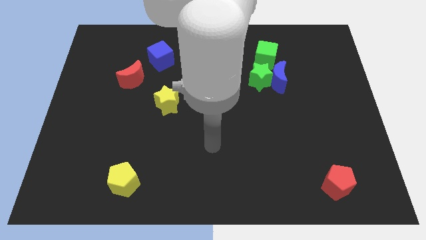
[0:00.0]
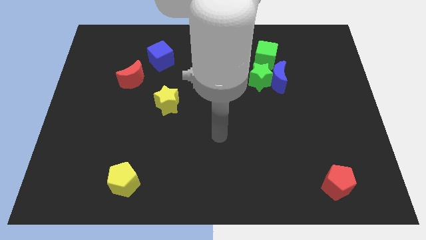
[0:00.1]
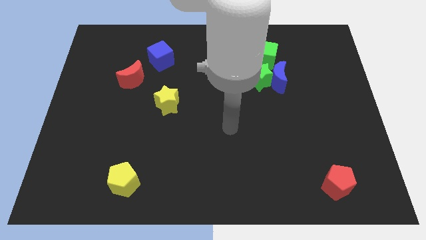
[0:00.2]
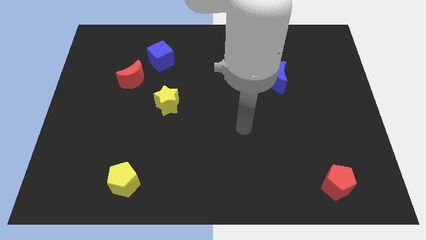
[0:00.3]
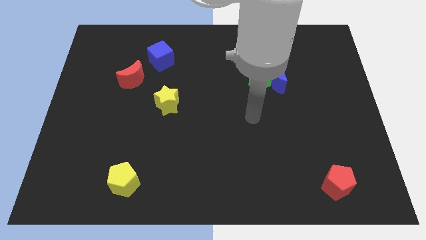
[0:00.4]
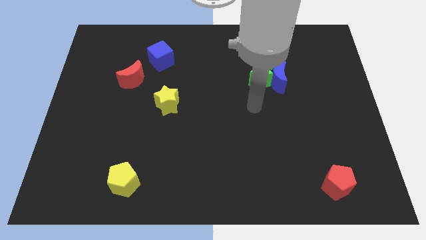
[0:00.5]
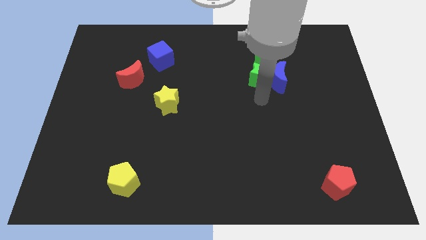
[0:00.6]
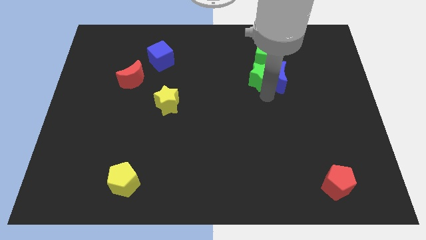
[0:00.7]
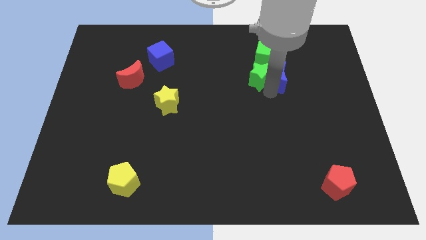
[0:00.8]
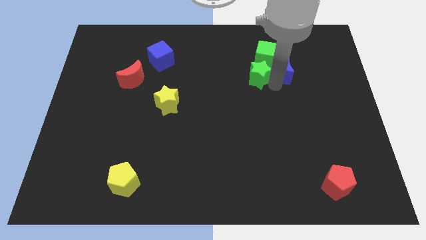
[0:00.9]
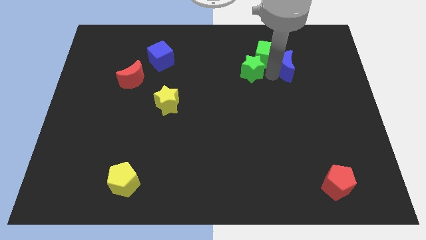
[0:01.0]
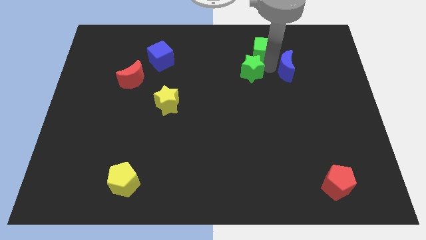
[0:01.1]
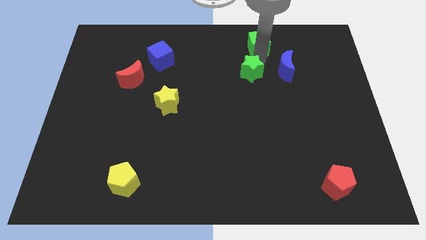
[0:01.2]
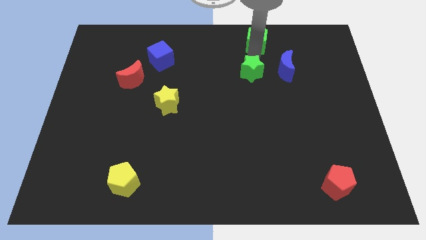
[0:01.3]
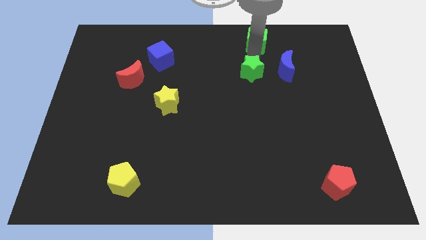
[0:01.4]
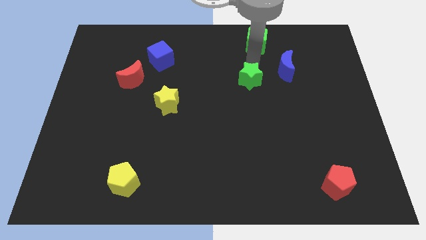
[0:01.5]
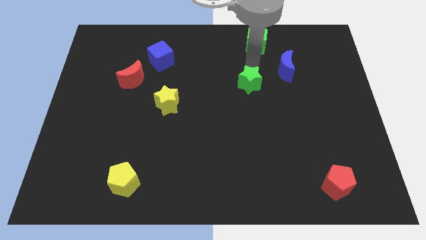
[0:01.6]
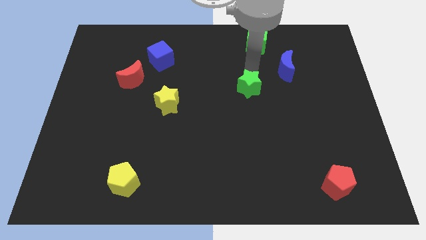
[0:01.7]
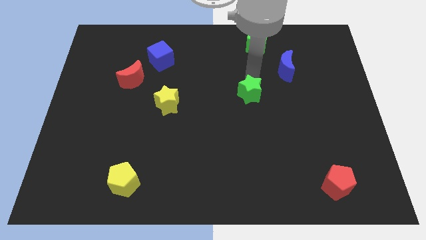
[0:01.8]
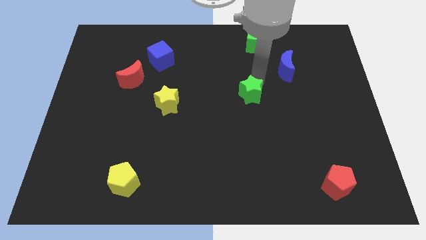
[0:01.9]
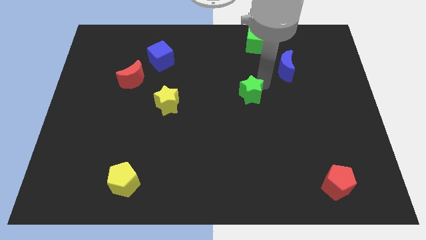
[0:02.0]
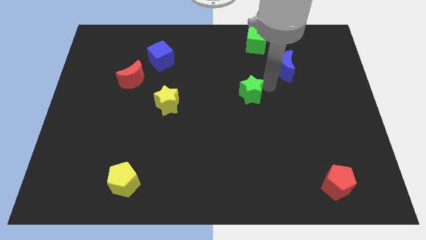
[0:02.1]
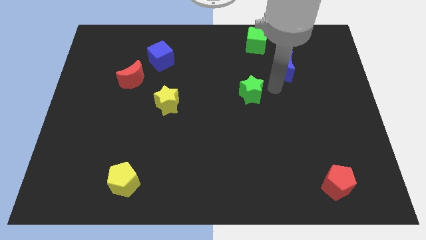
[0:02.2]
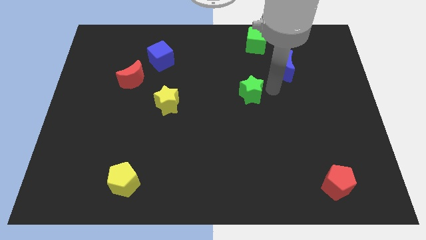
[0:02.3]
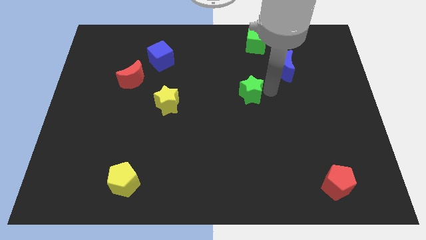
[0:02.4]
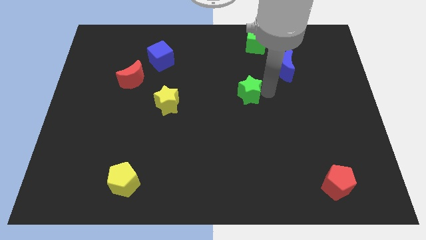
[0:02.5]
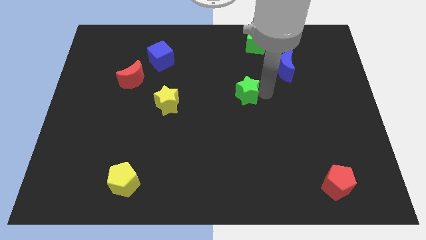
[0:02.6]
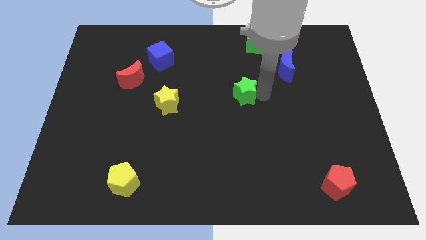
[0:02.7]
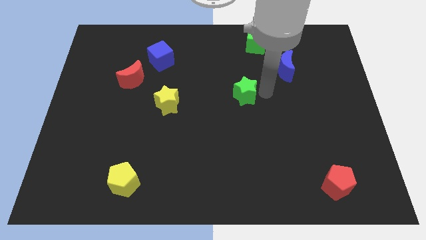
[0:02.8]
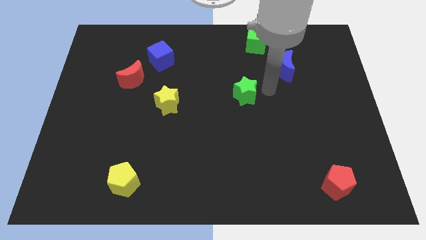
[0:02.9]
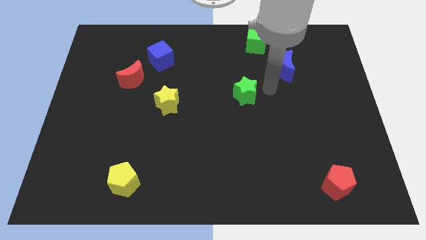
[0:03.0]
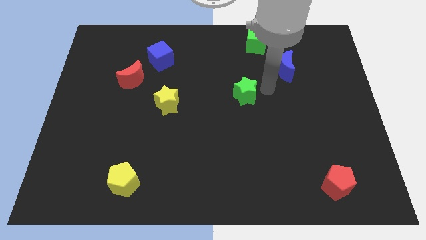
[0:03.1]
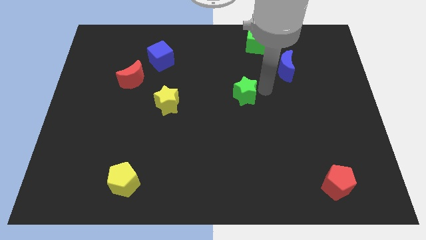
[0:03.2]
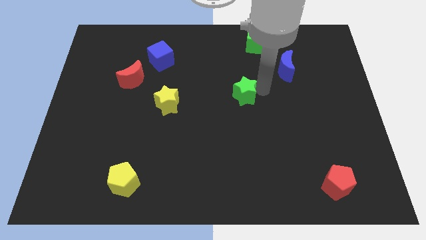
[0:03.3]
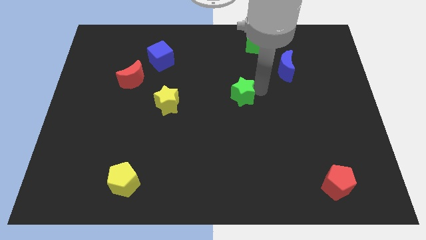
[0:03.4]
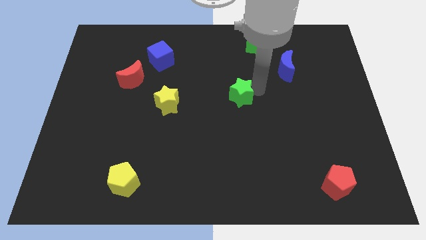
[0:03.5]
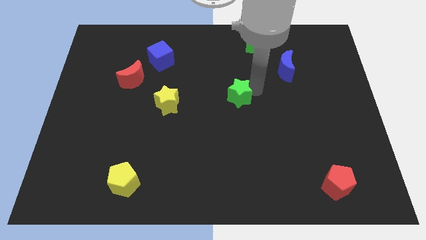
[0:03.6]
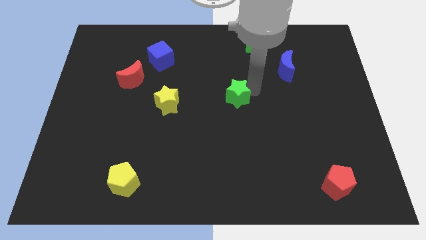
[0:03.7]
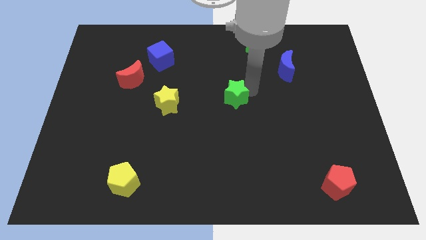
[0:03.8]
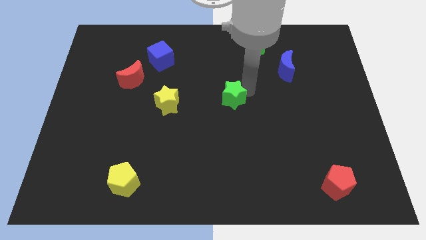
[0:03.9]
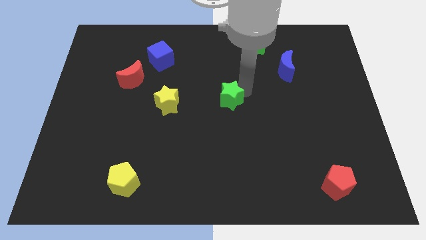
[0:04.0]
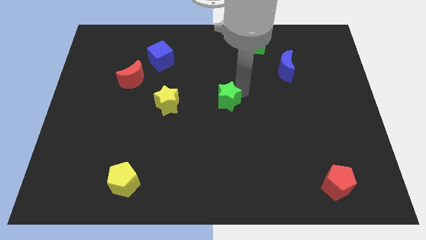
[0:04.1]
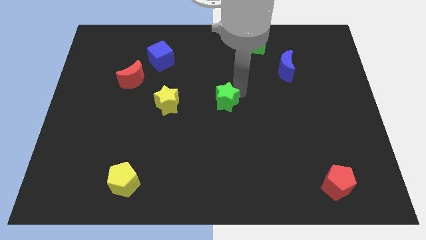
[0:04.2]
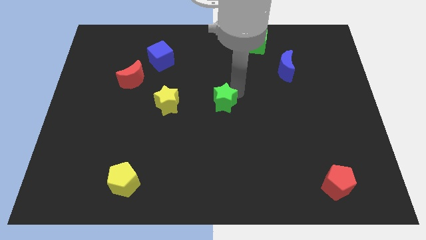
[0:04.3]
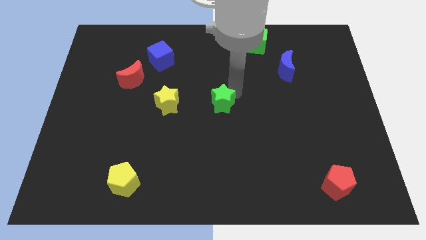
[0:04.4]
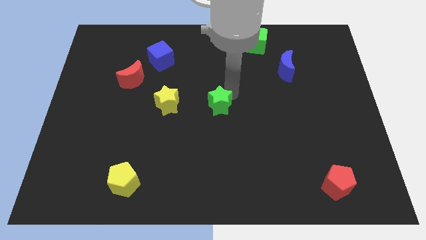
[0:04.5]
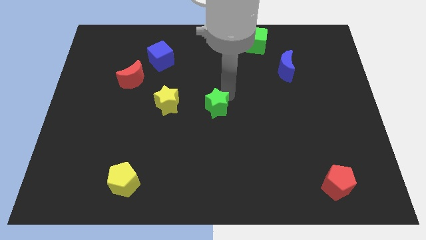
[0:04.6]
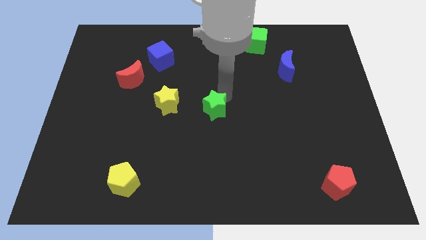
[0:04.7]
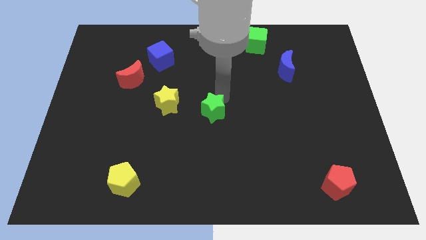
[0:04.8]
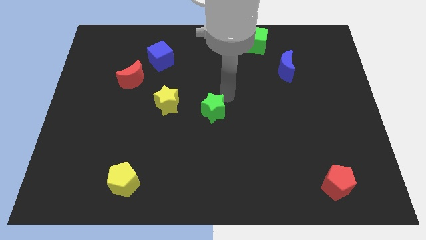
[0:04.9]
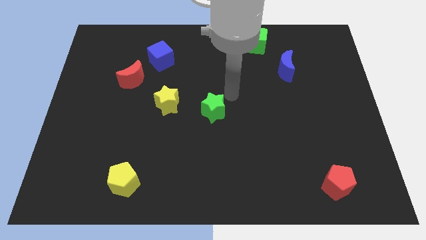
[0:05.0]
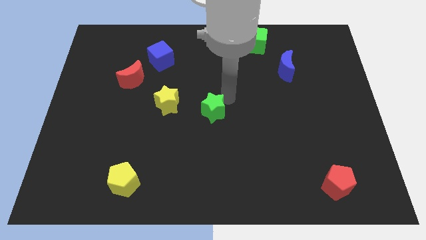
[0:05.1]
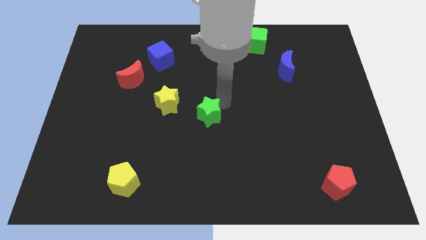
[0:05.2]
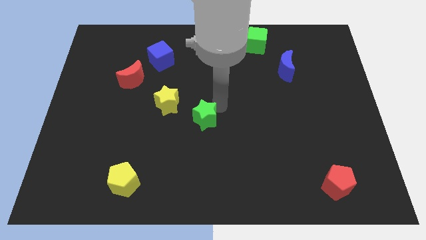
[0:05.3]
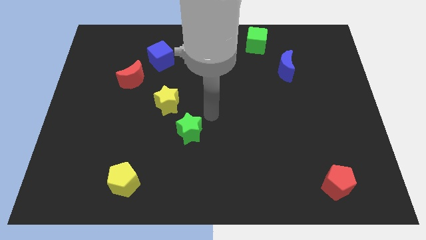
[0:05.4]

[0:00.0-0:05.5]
move the green star downwards and left

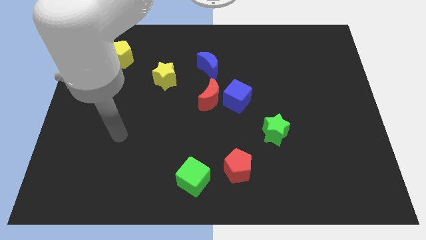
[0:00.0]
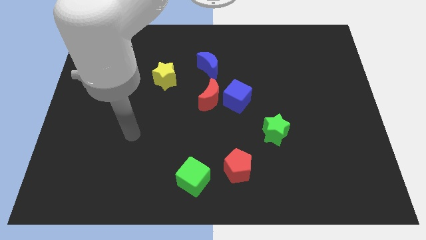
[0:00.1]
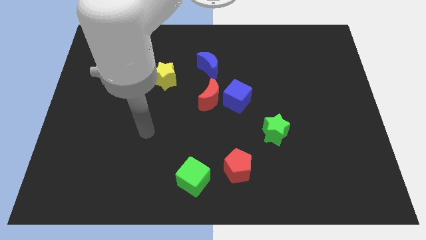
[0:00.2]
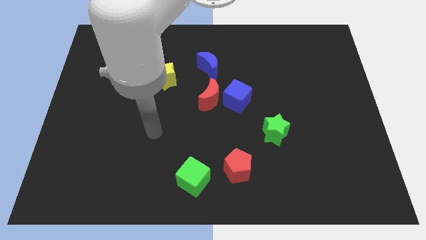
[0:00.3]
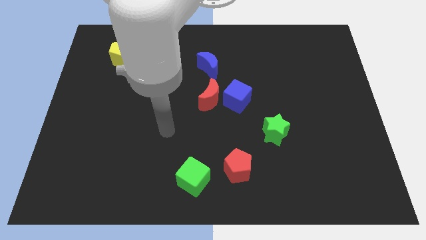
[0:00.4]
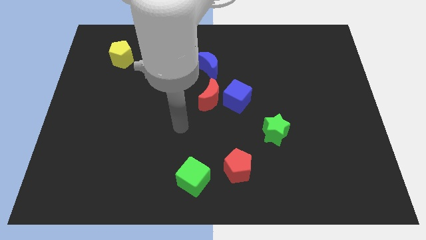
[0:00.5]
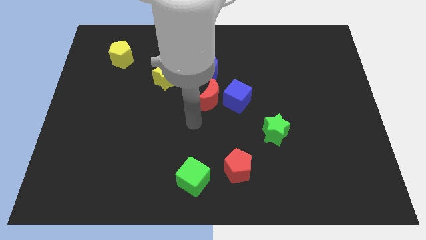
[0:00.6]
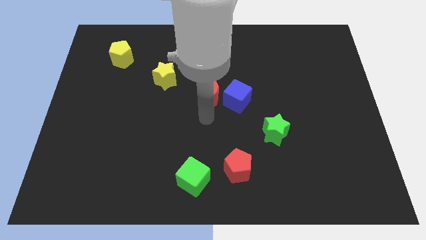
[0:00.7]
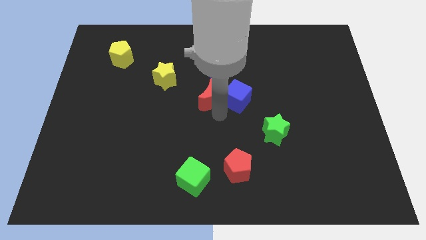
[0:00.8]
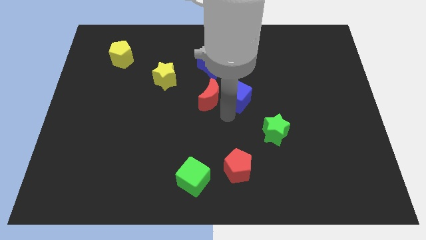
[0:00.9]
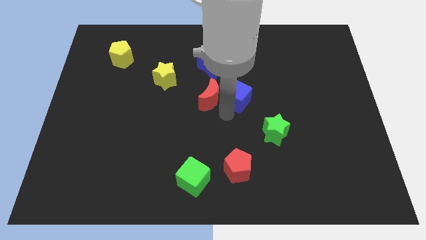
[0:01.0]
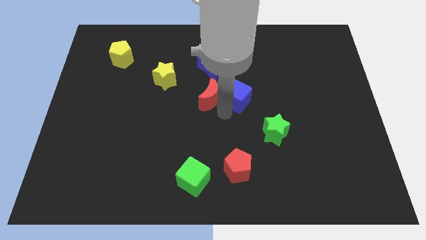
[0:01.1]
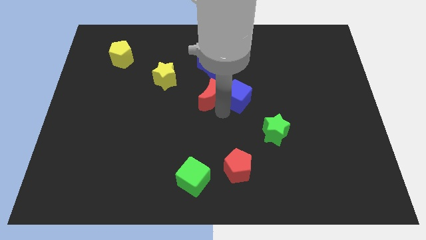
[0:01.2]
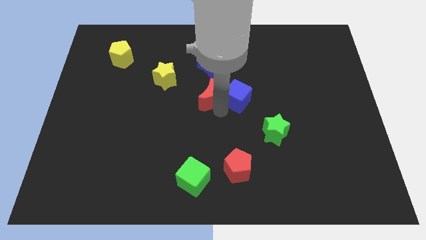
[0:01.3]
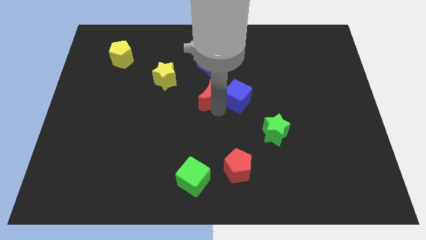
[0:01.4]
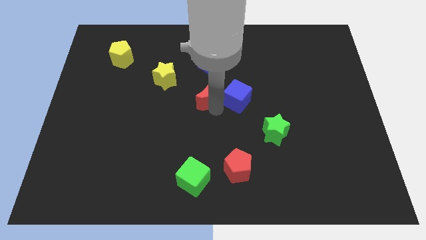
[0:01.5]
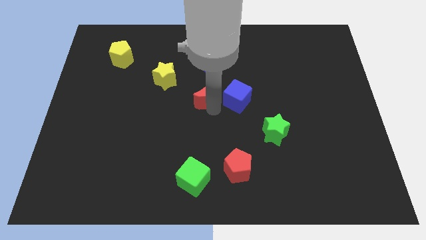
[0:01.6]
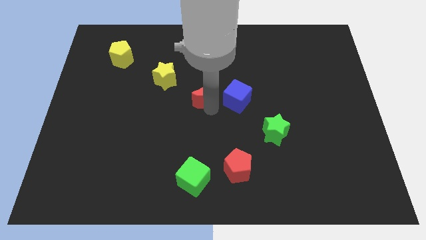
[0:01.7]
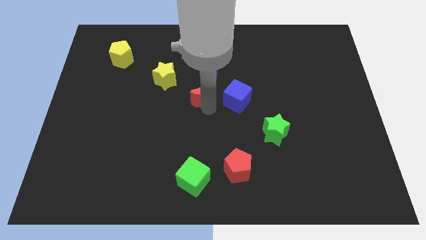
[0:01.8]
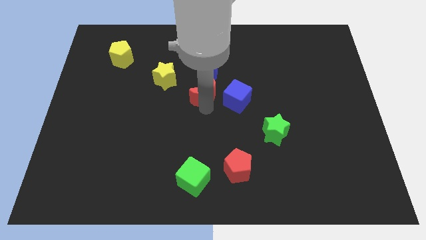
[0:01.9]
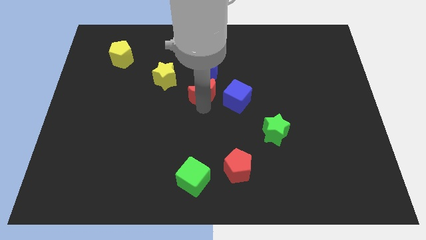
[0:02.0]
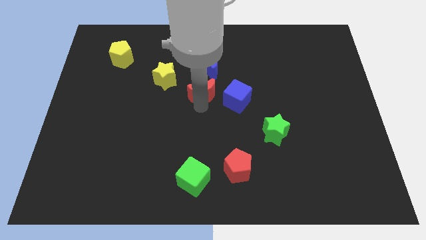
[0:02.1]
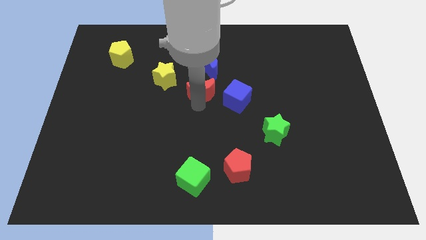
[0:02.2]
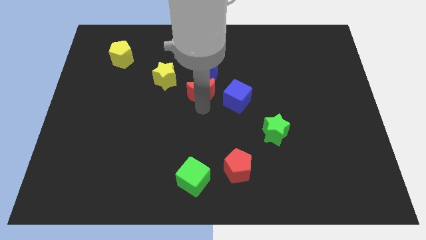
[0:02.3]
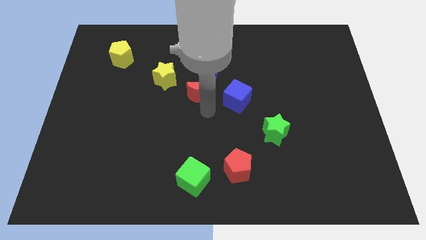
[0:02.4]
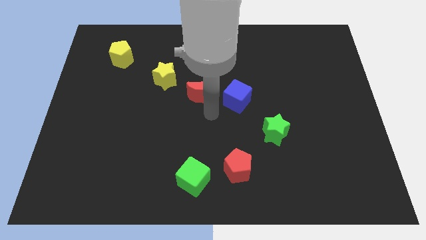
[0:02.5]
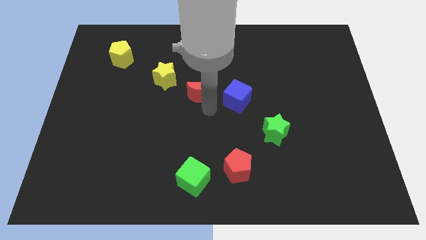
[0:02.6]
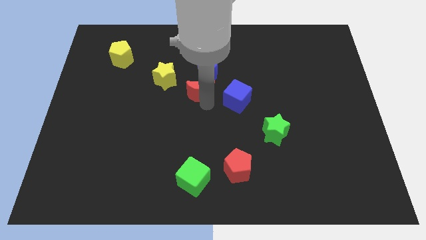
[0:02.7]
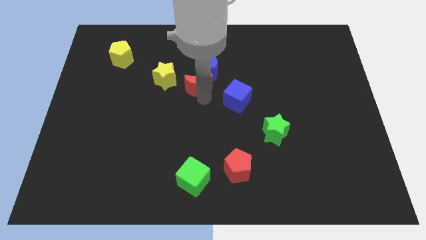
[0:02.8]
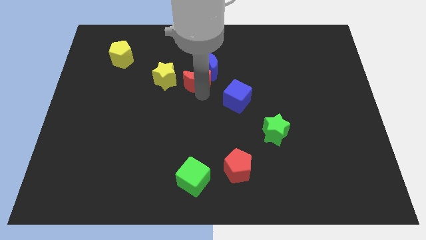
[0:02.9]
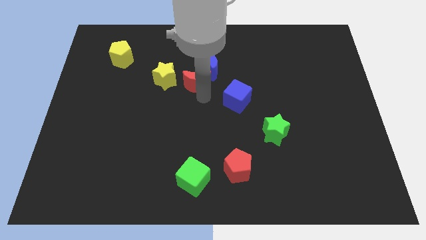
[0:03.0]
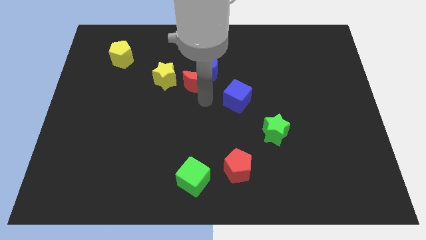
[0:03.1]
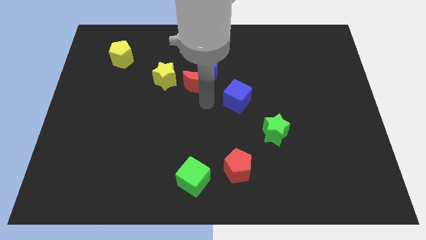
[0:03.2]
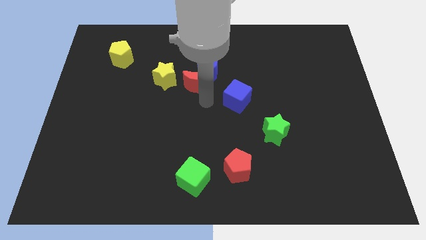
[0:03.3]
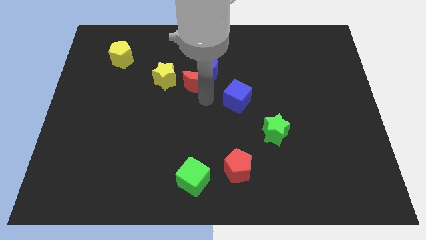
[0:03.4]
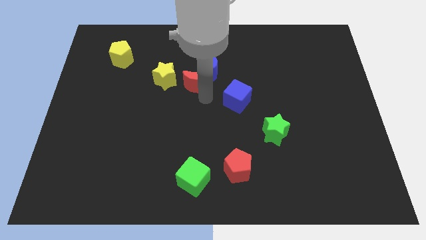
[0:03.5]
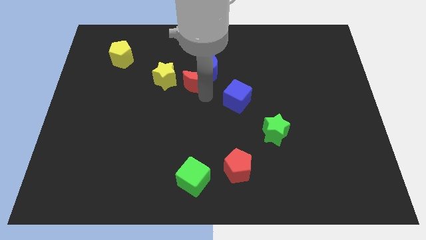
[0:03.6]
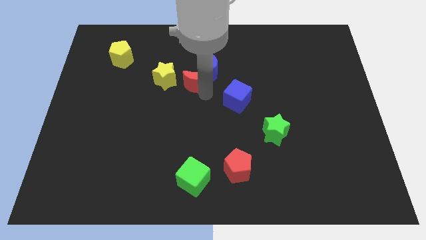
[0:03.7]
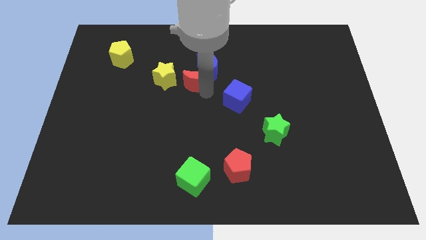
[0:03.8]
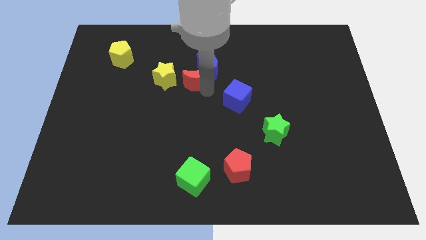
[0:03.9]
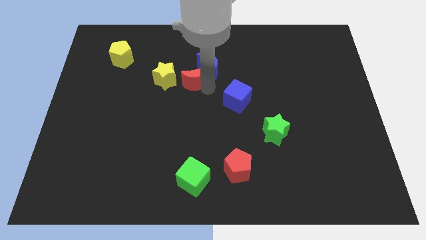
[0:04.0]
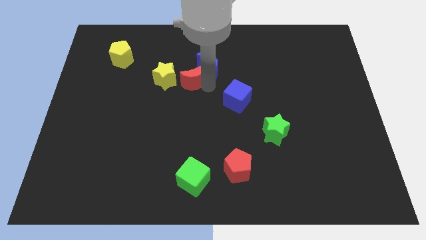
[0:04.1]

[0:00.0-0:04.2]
move the red moon up and then left a little bit
